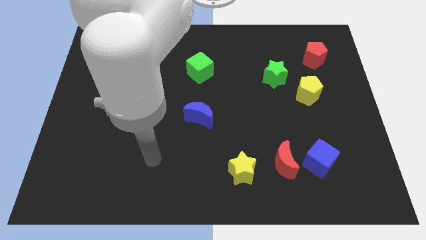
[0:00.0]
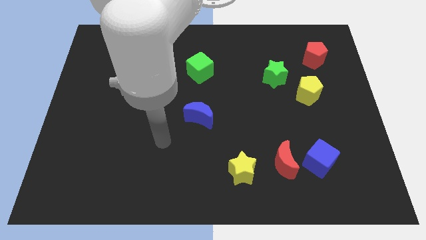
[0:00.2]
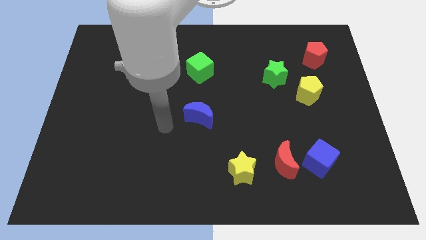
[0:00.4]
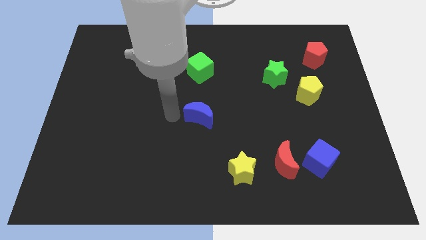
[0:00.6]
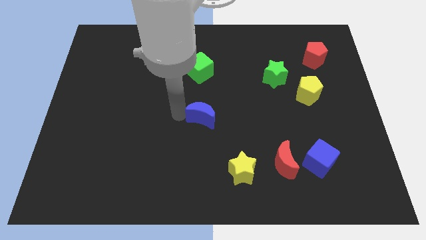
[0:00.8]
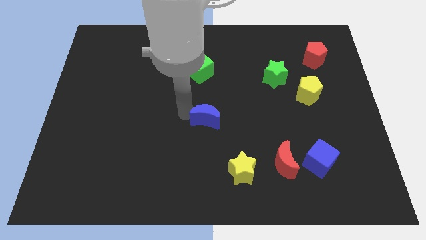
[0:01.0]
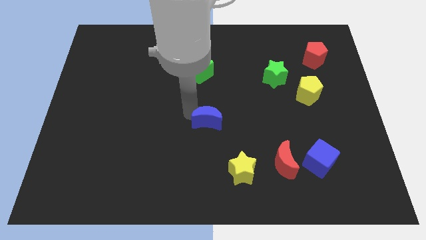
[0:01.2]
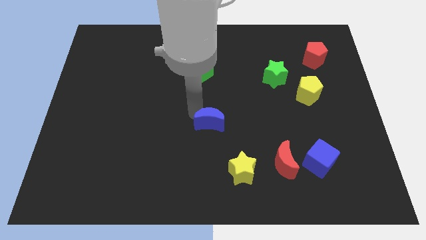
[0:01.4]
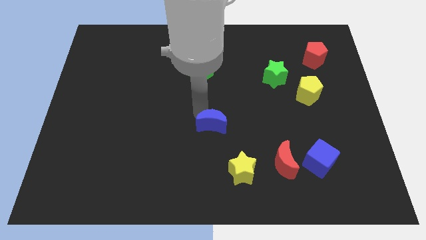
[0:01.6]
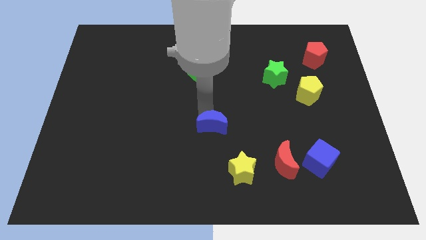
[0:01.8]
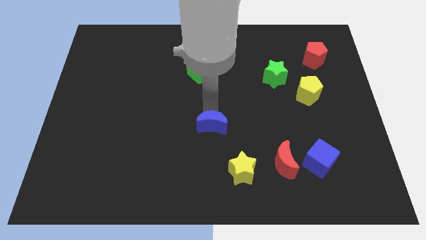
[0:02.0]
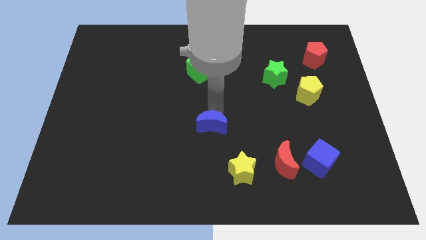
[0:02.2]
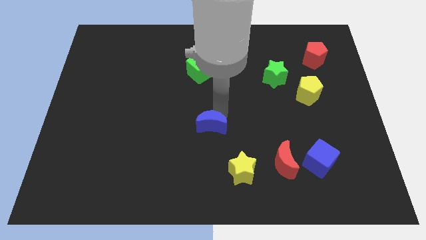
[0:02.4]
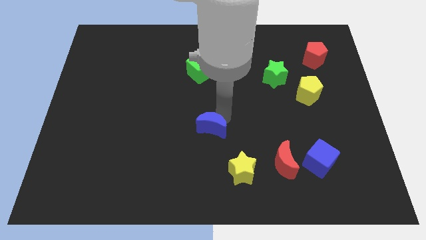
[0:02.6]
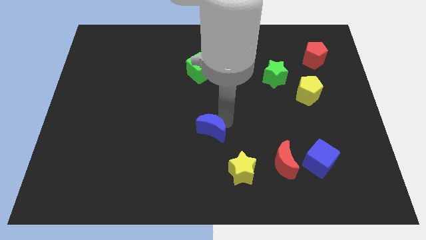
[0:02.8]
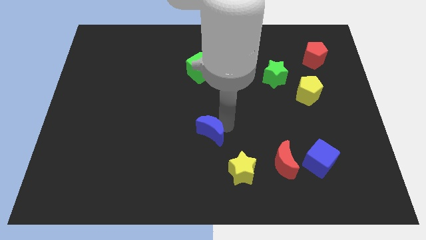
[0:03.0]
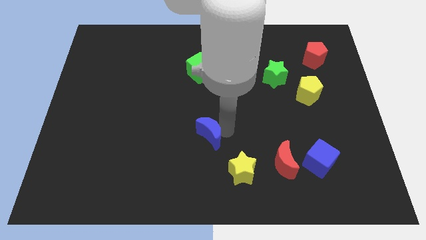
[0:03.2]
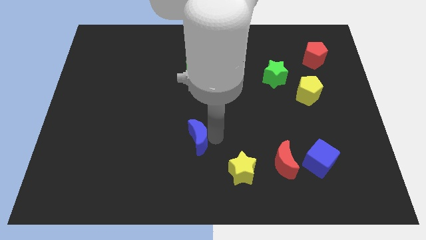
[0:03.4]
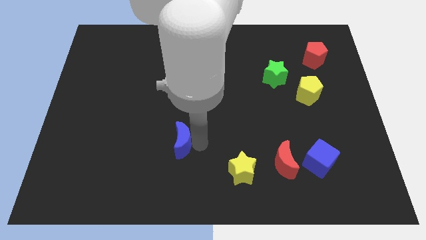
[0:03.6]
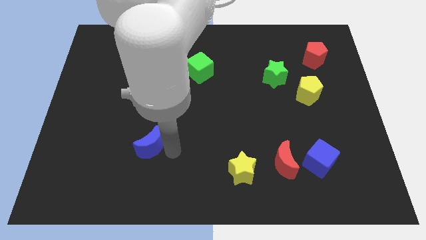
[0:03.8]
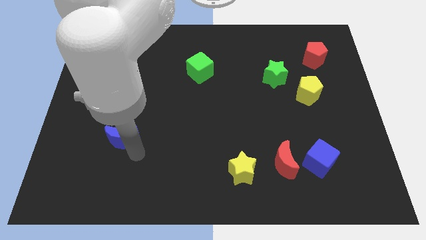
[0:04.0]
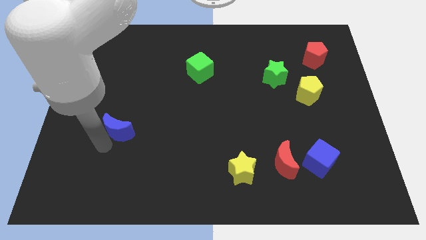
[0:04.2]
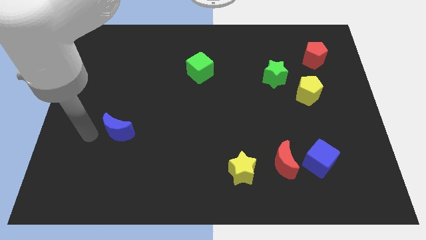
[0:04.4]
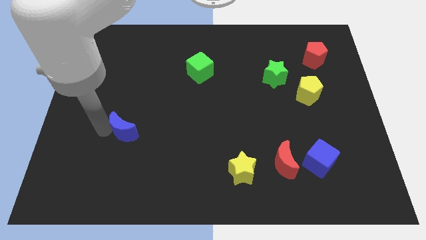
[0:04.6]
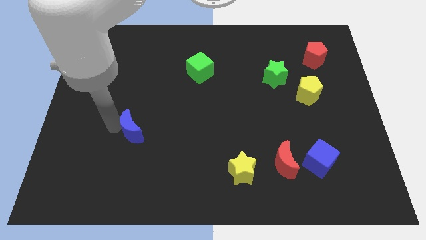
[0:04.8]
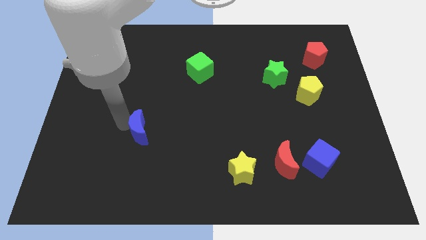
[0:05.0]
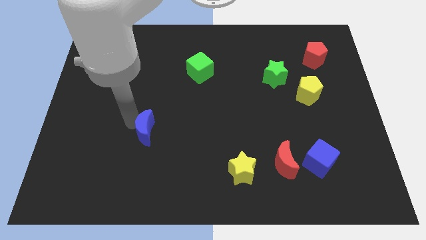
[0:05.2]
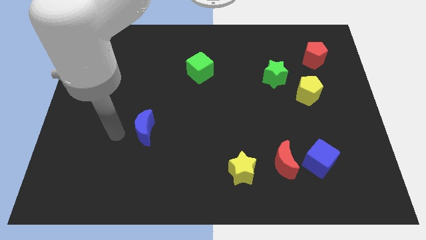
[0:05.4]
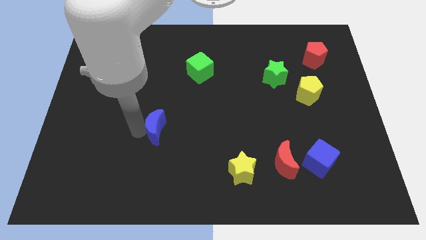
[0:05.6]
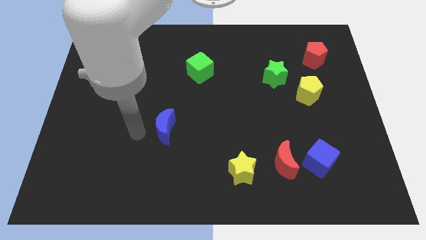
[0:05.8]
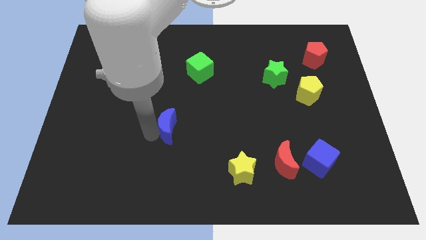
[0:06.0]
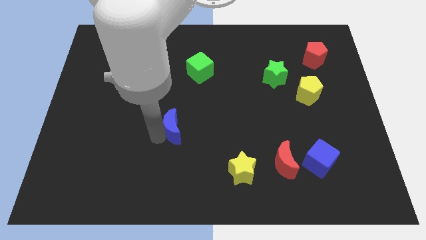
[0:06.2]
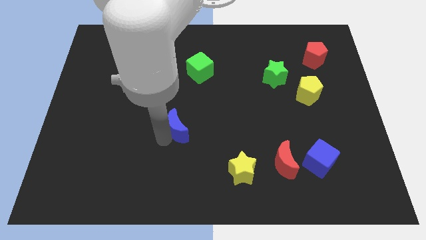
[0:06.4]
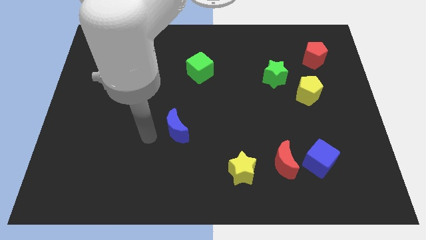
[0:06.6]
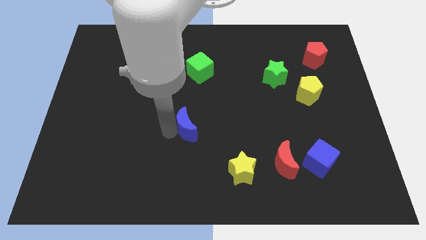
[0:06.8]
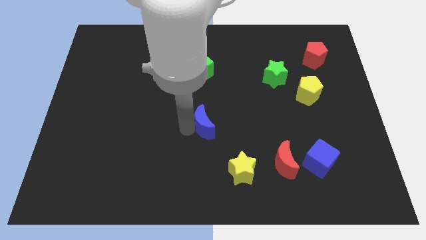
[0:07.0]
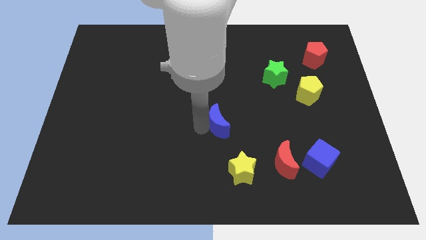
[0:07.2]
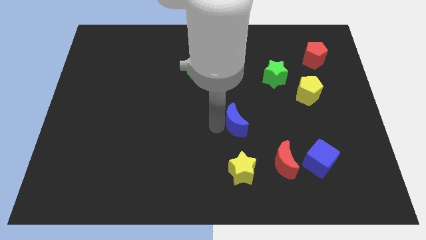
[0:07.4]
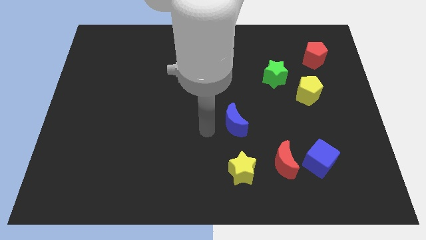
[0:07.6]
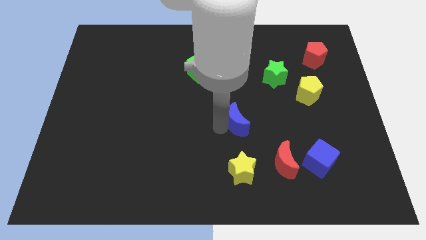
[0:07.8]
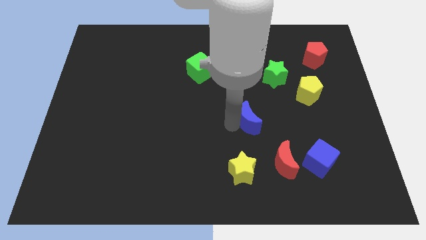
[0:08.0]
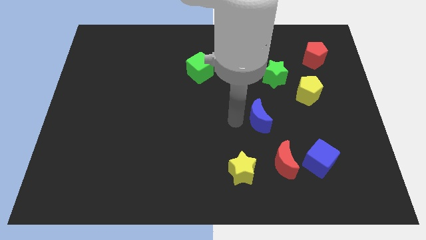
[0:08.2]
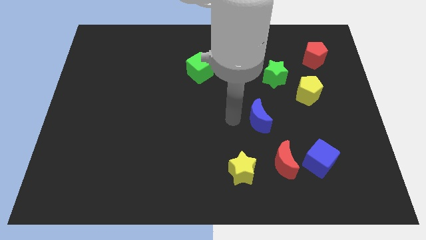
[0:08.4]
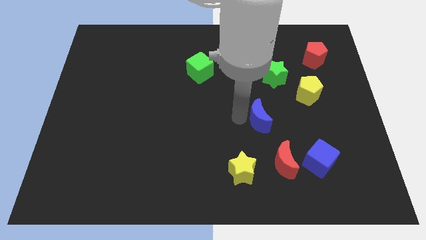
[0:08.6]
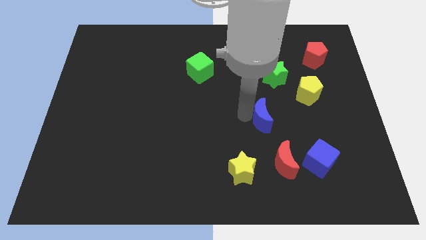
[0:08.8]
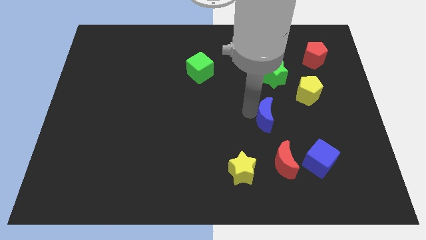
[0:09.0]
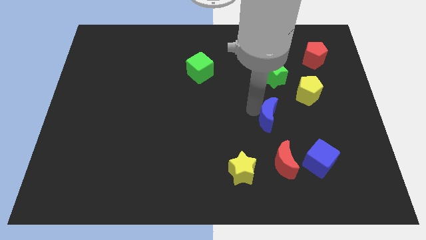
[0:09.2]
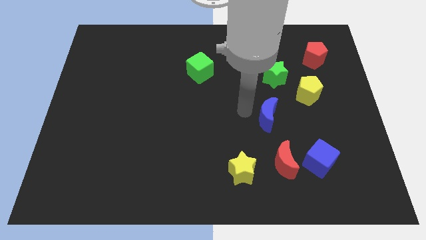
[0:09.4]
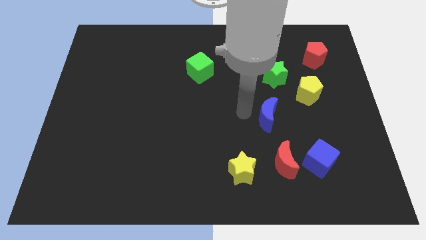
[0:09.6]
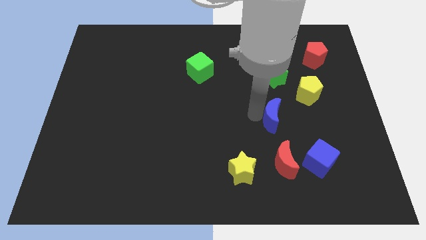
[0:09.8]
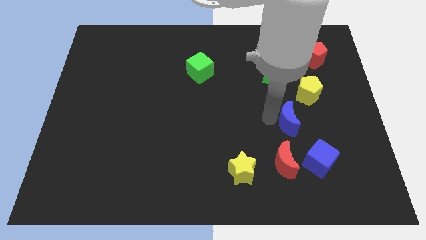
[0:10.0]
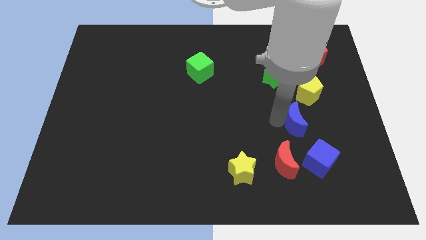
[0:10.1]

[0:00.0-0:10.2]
push the blue moon to the top of the blue cube

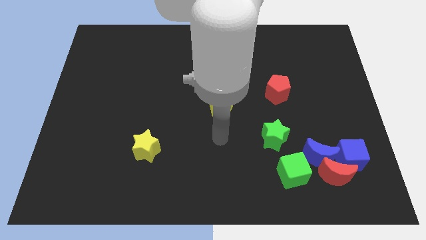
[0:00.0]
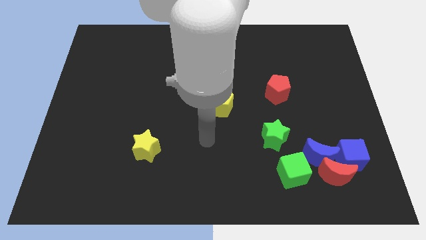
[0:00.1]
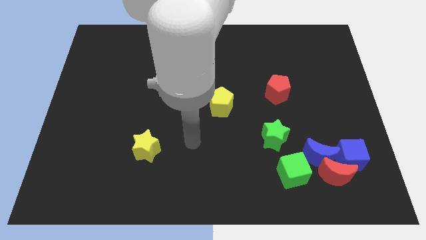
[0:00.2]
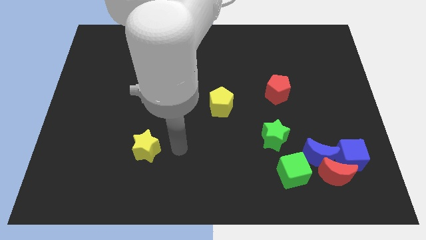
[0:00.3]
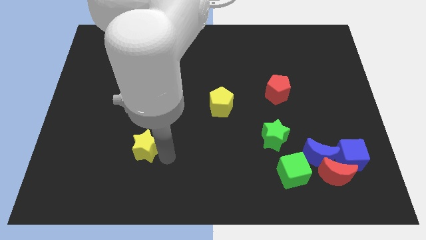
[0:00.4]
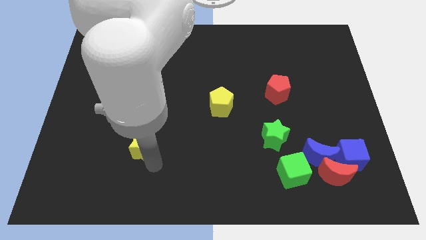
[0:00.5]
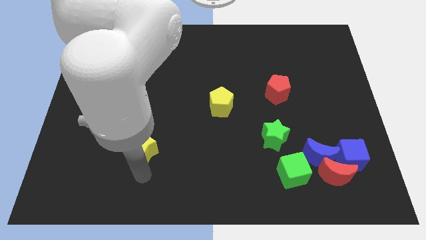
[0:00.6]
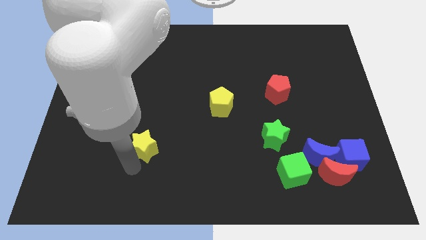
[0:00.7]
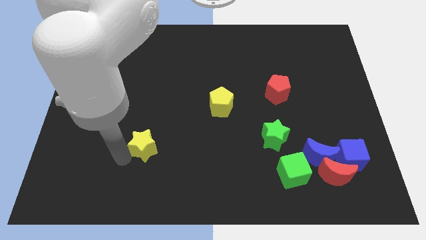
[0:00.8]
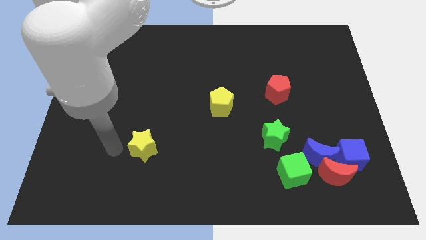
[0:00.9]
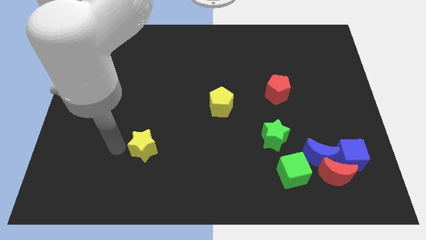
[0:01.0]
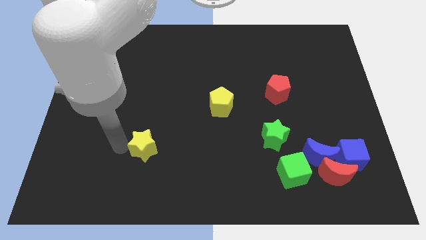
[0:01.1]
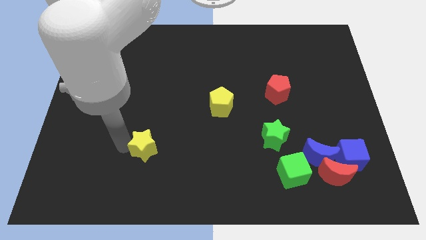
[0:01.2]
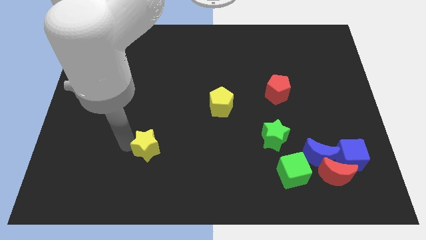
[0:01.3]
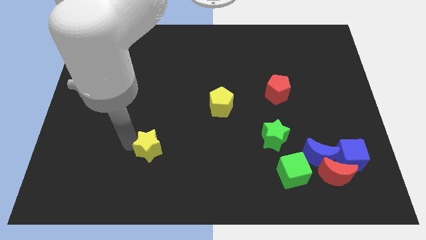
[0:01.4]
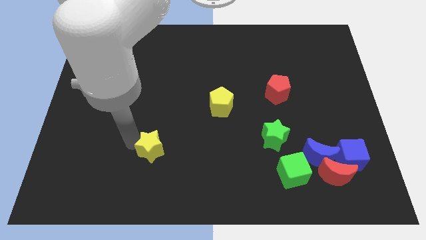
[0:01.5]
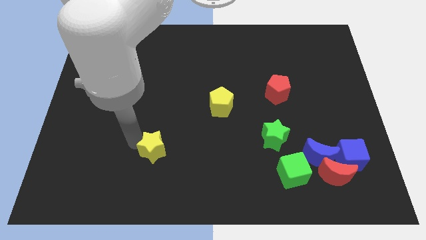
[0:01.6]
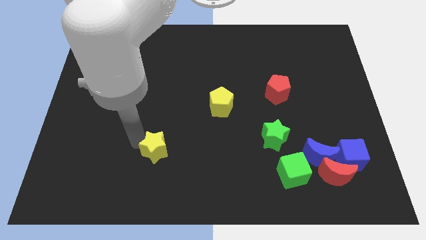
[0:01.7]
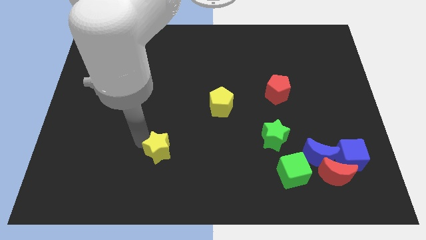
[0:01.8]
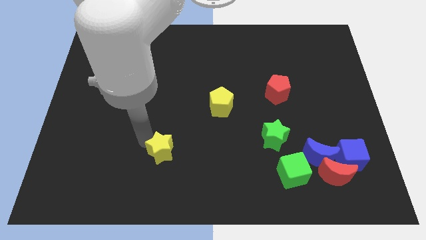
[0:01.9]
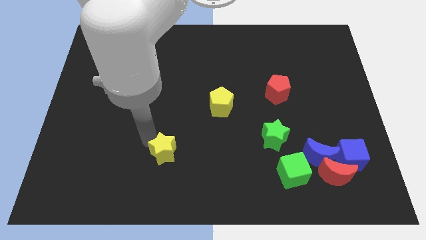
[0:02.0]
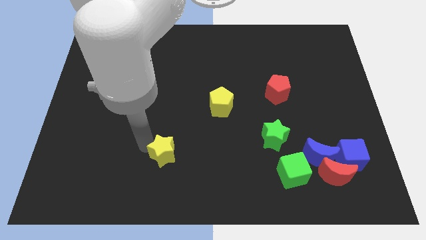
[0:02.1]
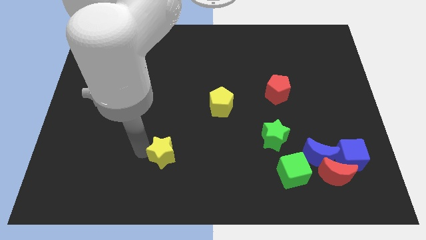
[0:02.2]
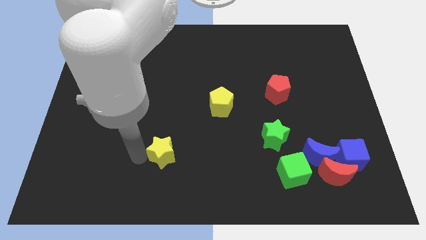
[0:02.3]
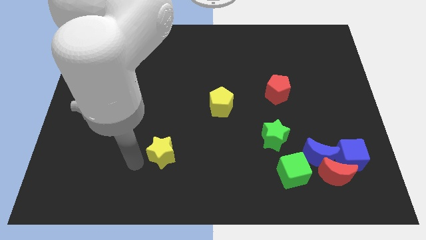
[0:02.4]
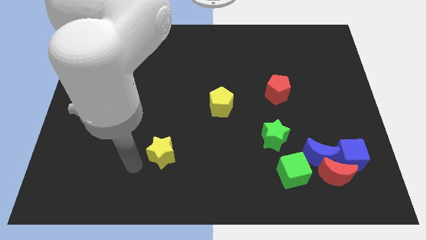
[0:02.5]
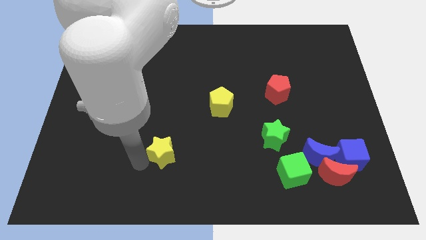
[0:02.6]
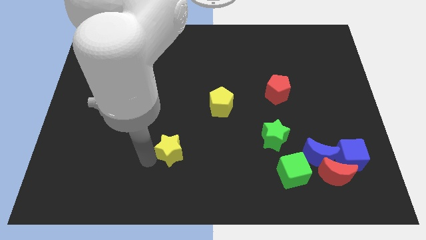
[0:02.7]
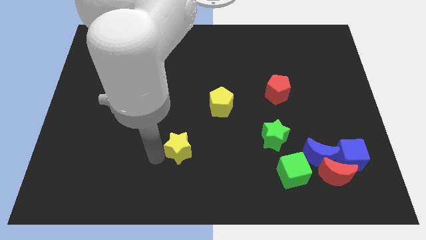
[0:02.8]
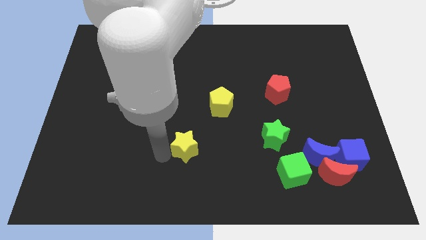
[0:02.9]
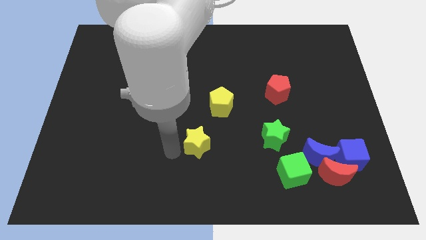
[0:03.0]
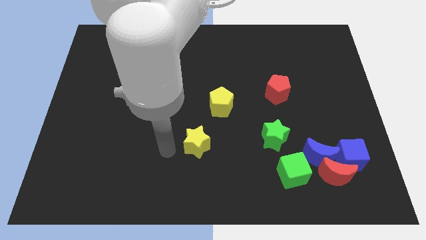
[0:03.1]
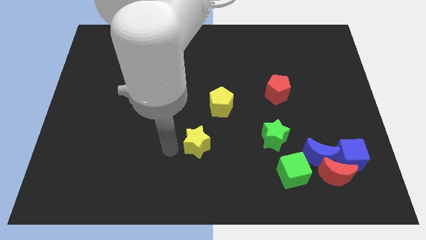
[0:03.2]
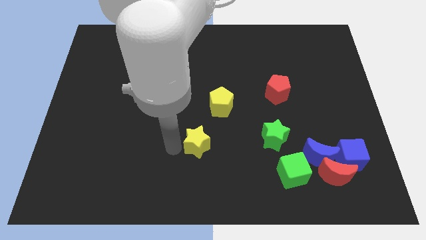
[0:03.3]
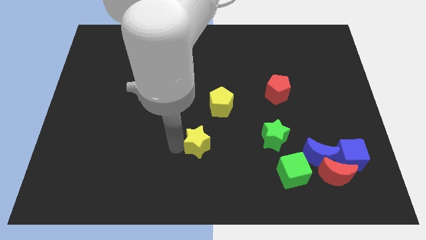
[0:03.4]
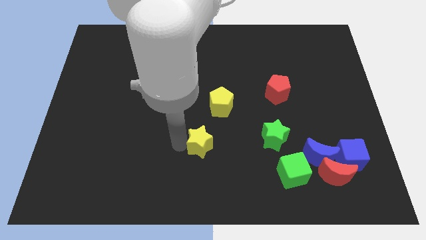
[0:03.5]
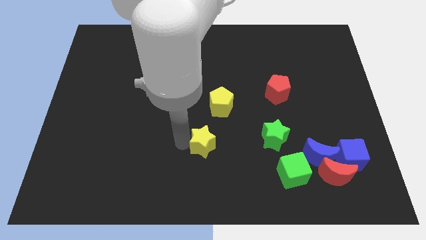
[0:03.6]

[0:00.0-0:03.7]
push the yellow star to the left of the green star
